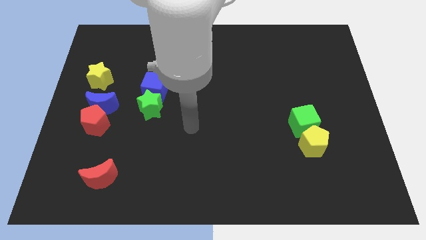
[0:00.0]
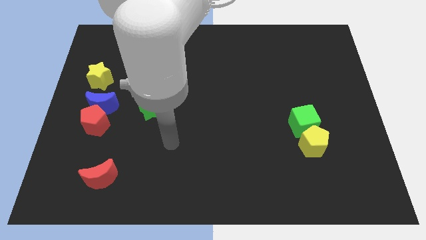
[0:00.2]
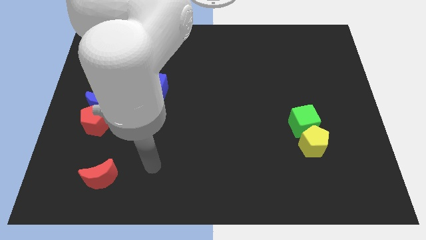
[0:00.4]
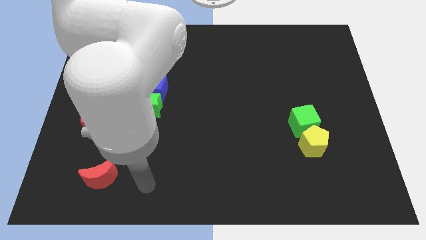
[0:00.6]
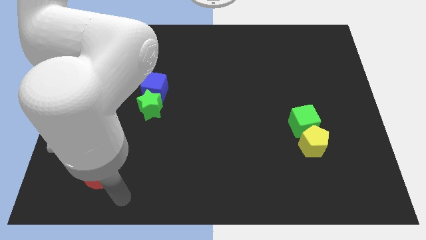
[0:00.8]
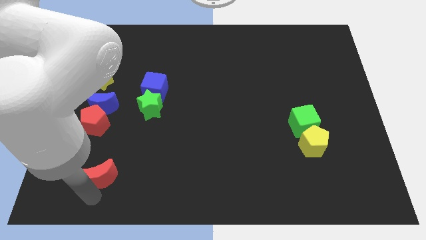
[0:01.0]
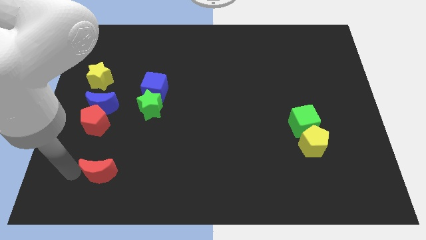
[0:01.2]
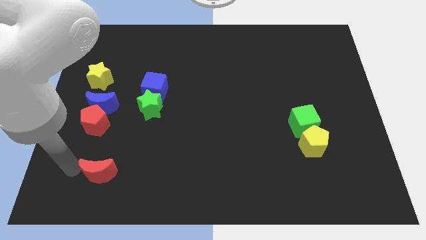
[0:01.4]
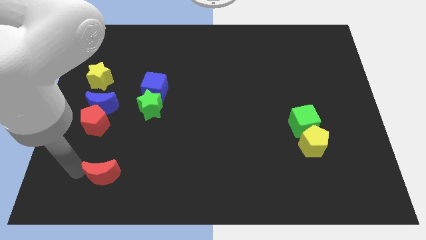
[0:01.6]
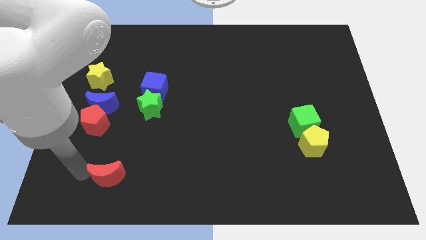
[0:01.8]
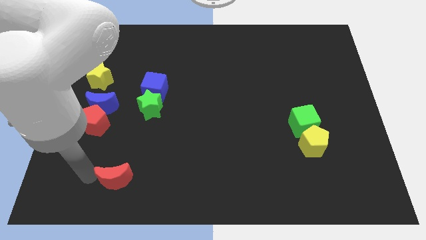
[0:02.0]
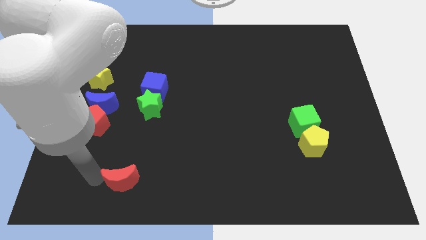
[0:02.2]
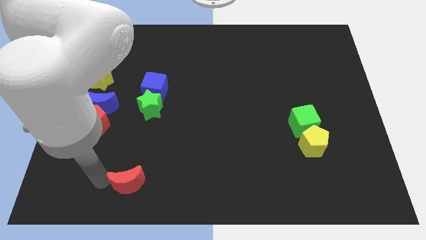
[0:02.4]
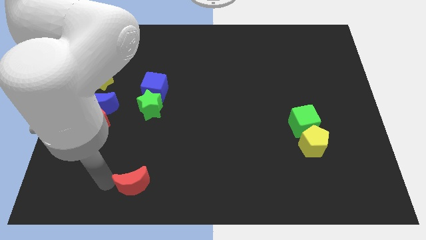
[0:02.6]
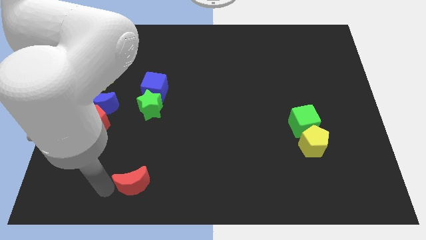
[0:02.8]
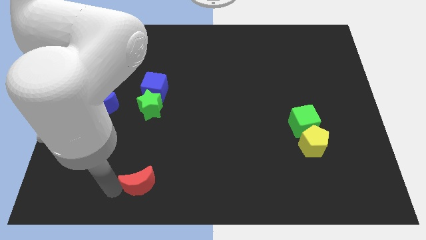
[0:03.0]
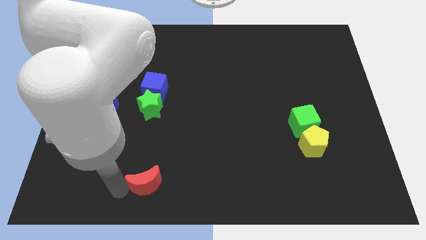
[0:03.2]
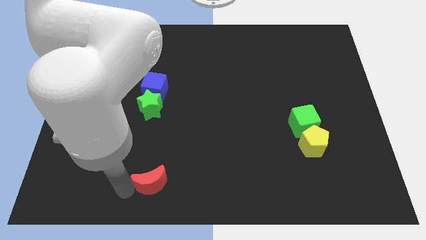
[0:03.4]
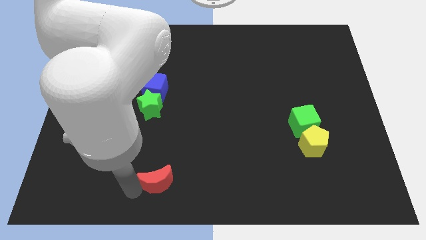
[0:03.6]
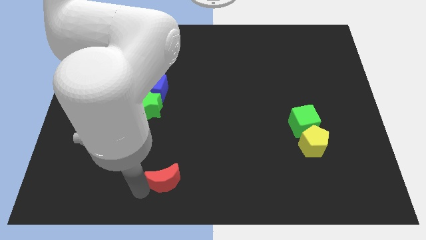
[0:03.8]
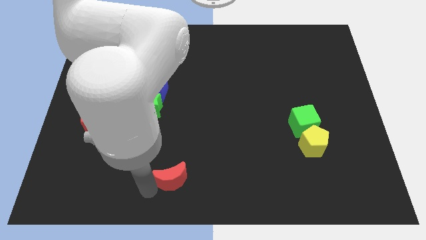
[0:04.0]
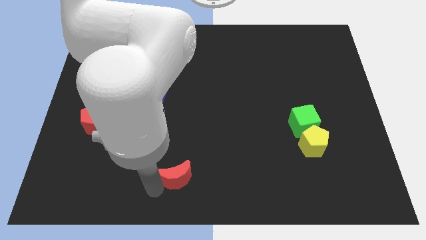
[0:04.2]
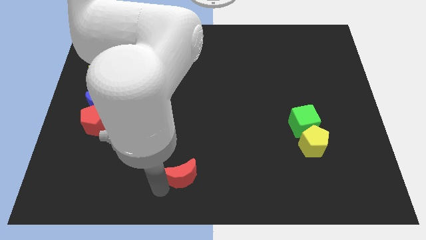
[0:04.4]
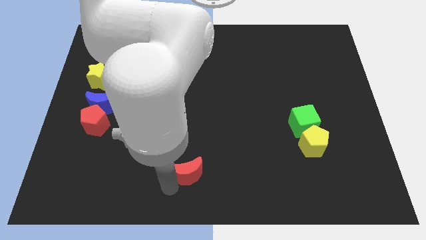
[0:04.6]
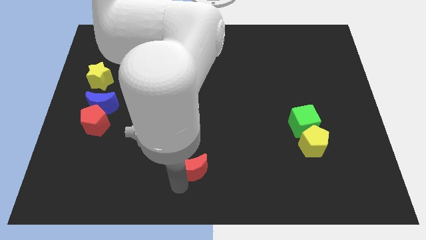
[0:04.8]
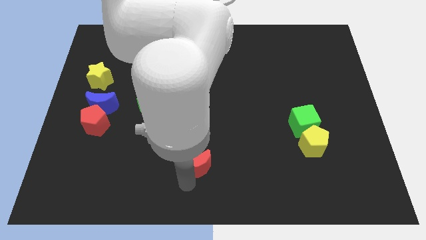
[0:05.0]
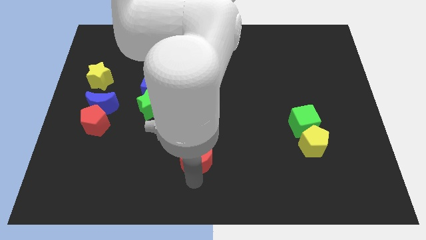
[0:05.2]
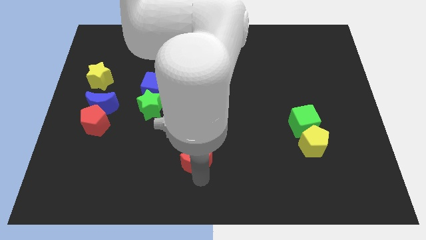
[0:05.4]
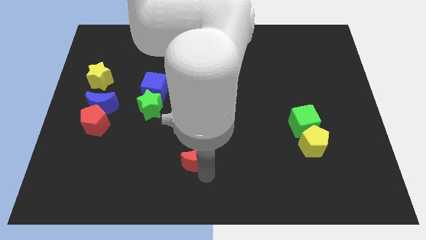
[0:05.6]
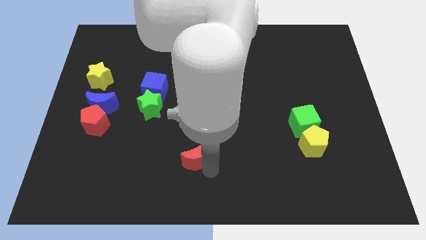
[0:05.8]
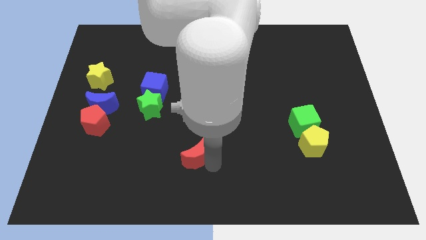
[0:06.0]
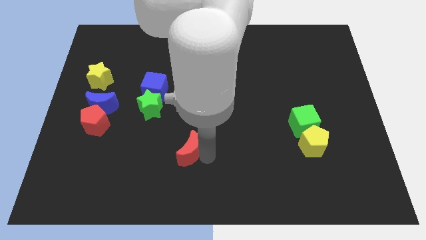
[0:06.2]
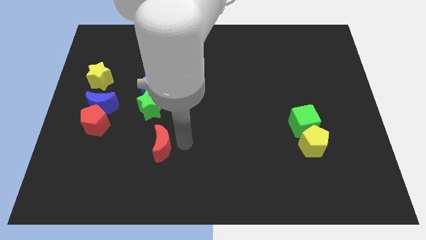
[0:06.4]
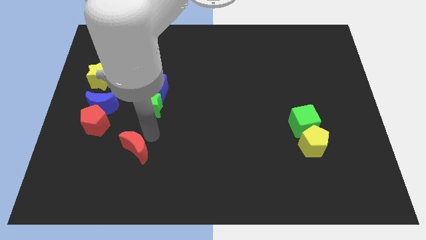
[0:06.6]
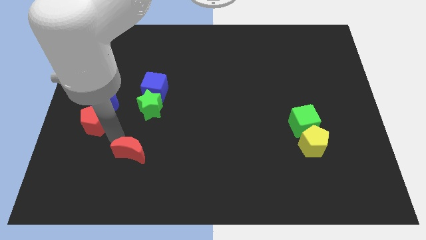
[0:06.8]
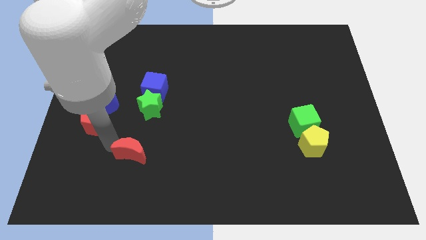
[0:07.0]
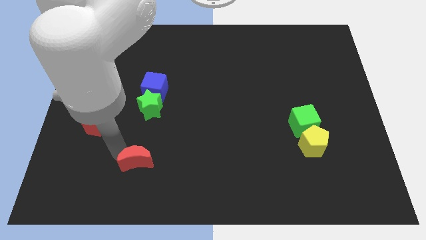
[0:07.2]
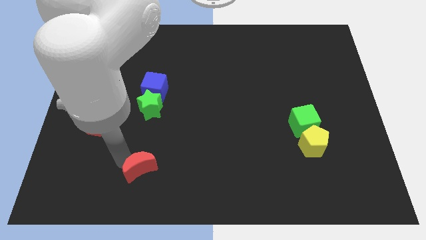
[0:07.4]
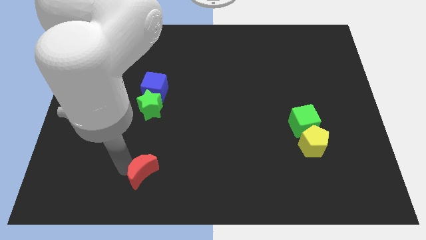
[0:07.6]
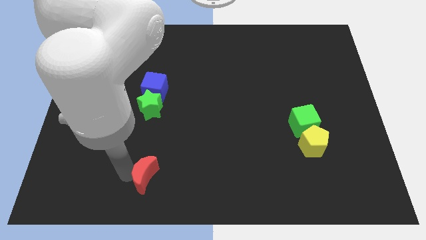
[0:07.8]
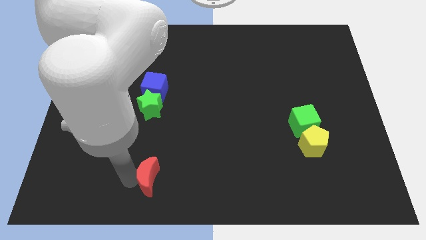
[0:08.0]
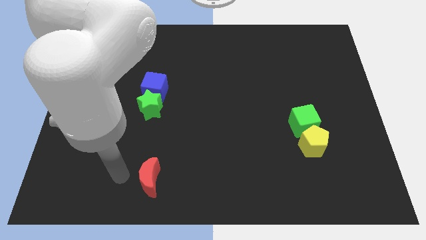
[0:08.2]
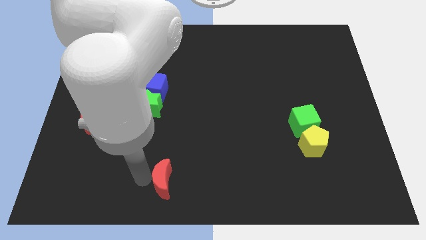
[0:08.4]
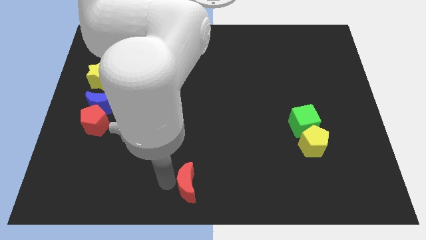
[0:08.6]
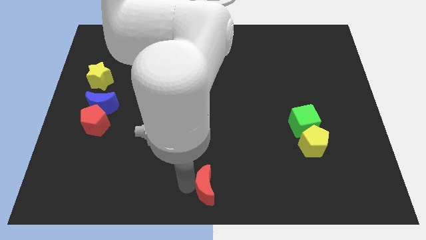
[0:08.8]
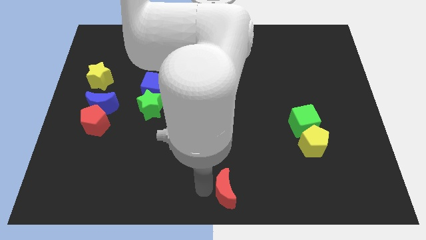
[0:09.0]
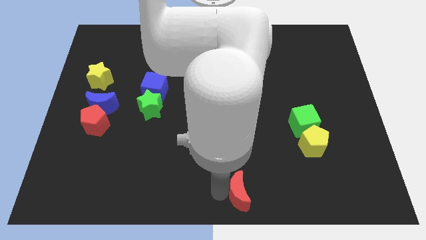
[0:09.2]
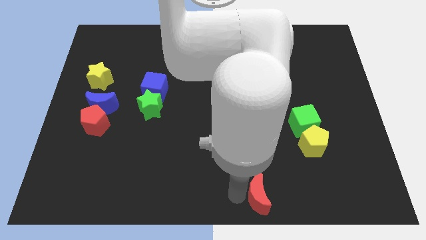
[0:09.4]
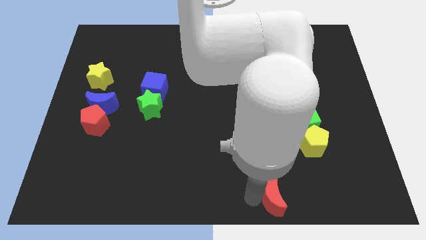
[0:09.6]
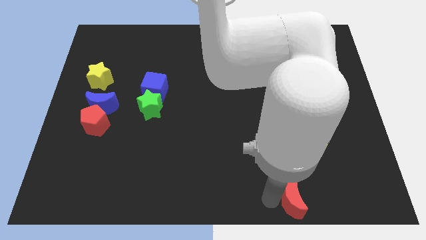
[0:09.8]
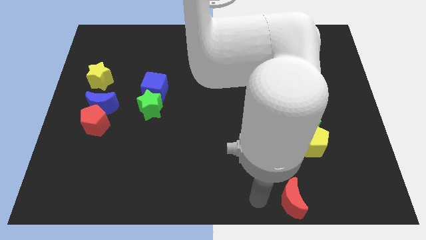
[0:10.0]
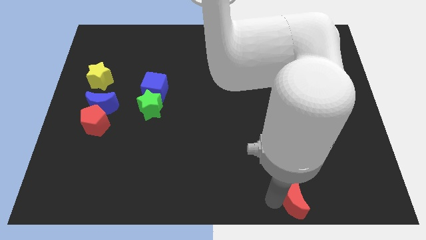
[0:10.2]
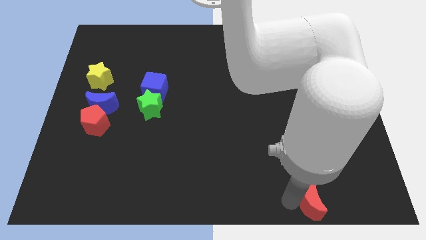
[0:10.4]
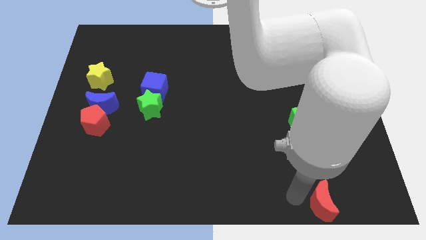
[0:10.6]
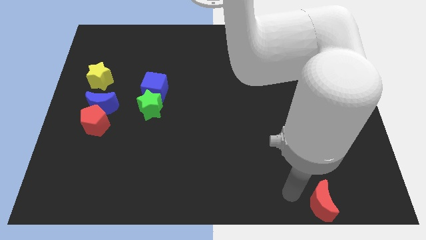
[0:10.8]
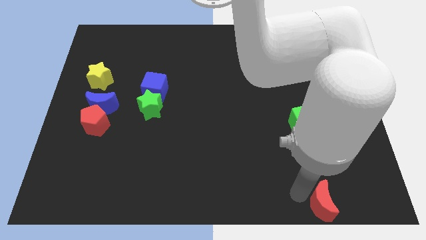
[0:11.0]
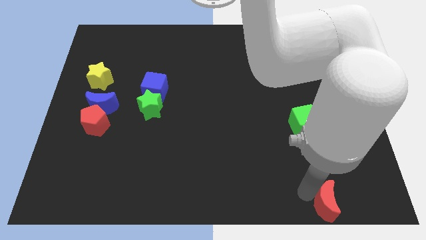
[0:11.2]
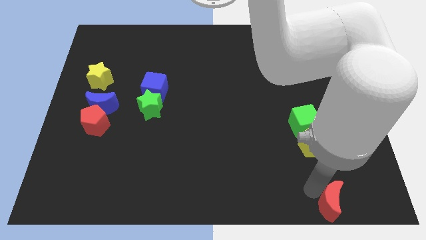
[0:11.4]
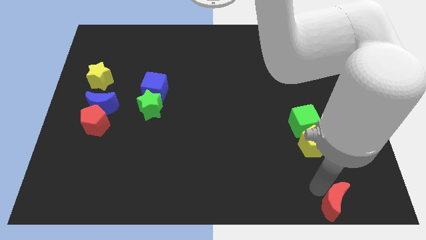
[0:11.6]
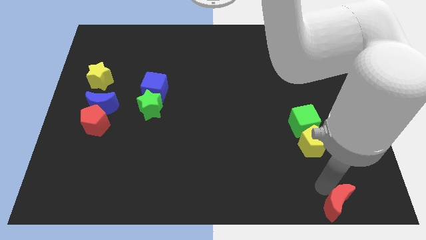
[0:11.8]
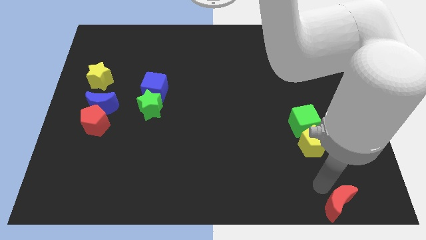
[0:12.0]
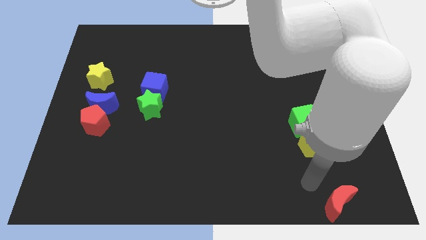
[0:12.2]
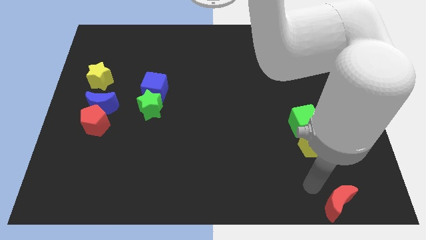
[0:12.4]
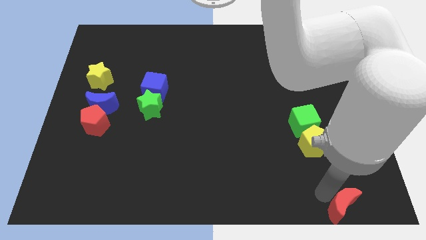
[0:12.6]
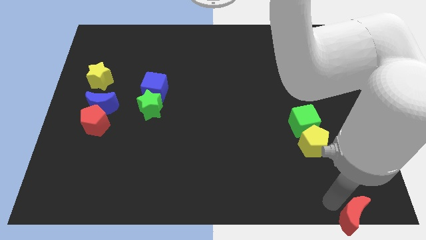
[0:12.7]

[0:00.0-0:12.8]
put the red moon to the bottom right corner
